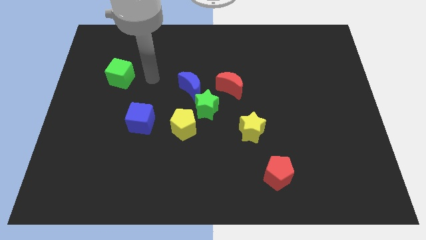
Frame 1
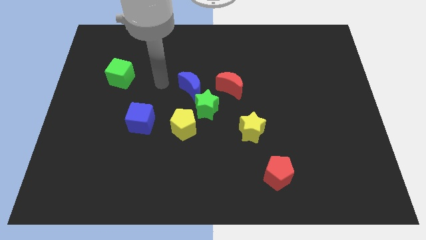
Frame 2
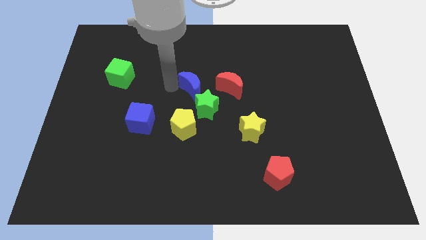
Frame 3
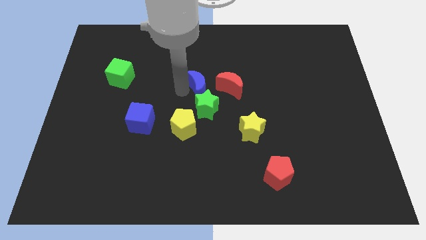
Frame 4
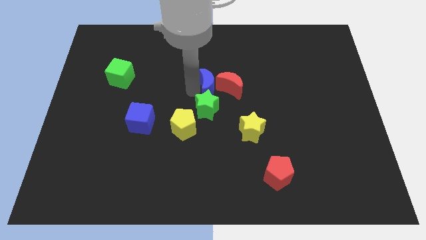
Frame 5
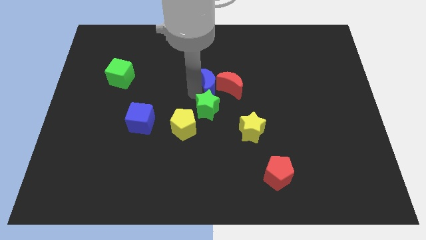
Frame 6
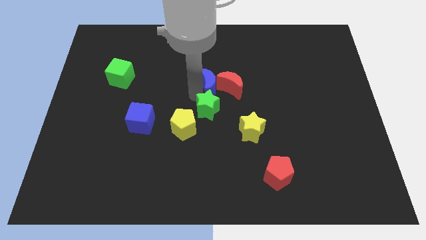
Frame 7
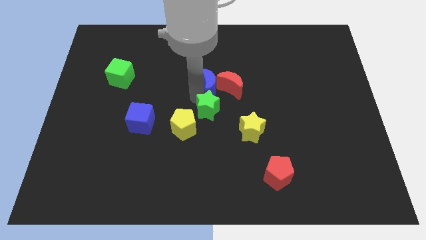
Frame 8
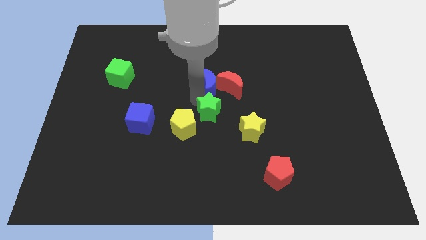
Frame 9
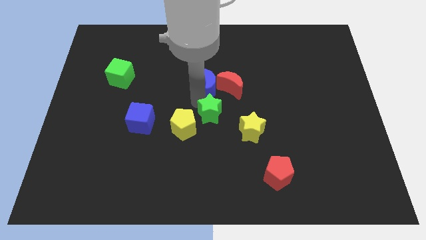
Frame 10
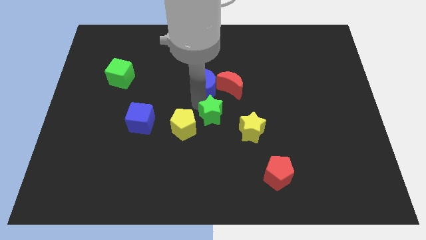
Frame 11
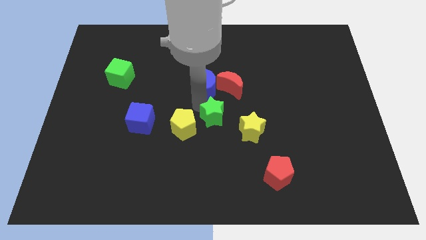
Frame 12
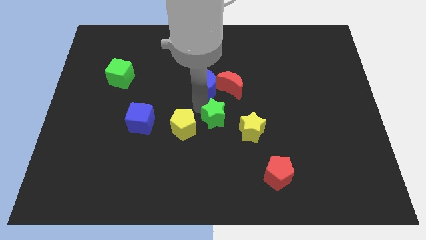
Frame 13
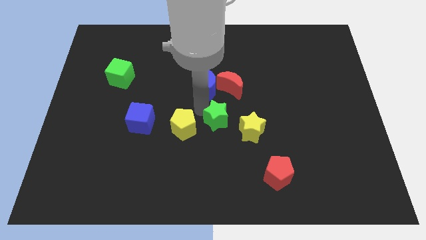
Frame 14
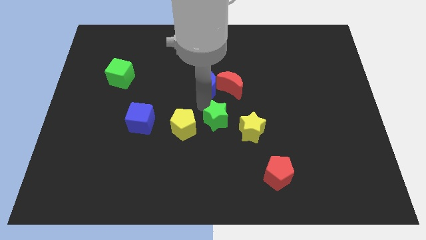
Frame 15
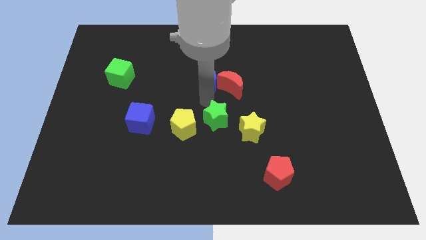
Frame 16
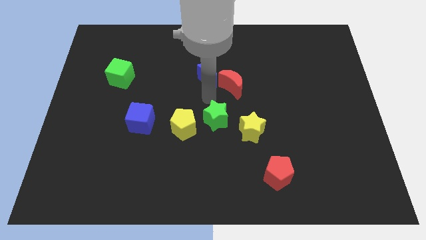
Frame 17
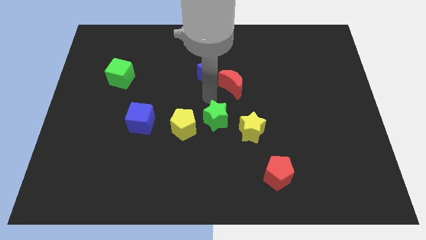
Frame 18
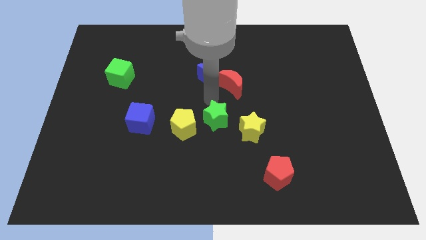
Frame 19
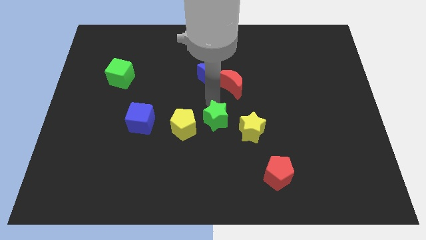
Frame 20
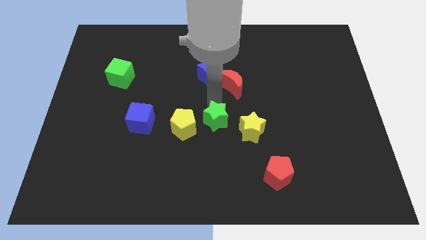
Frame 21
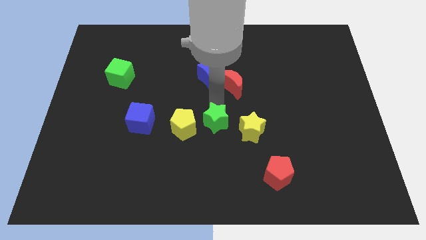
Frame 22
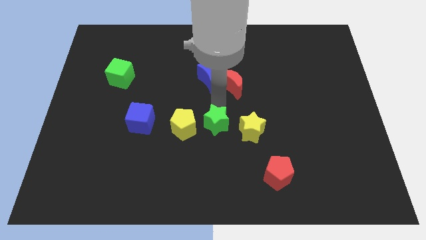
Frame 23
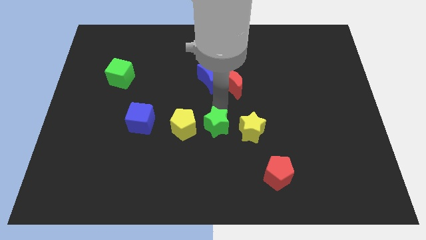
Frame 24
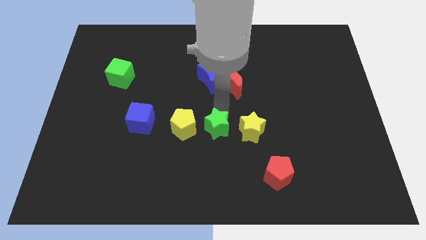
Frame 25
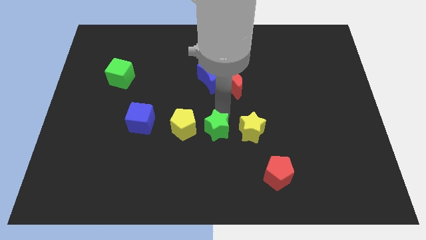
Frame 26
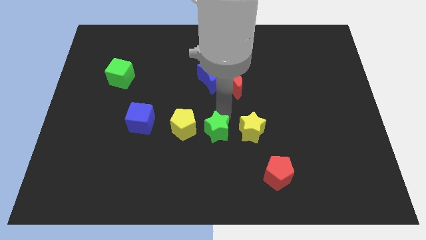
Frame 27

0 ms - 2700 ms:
separate the green star from the blue moon, yellow pentagon, and red moon

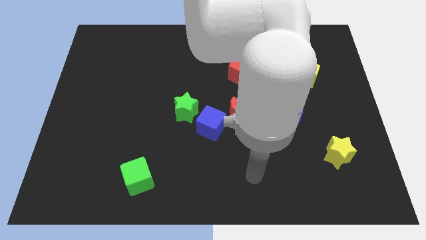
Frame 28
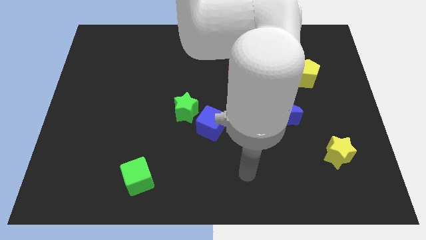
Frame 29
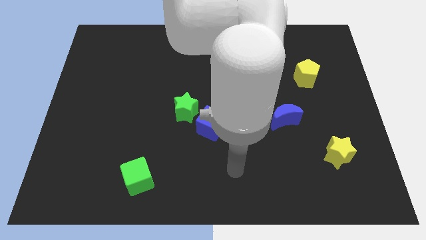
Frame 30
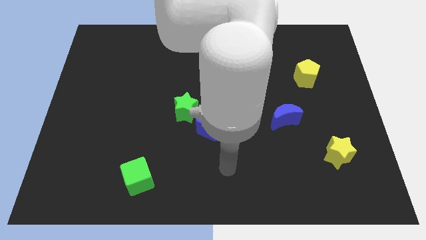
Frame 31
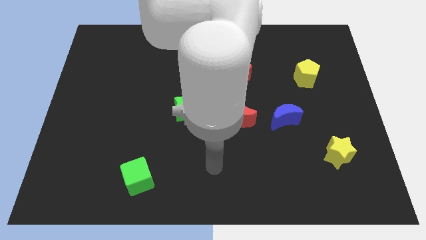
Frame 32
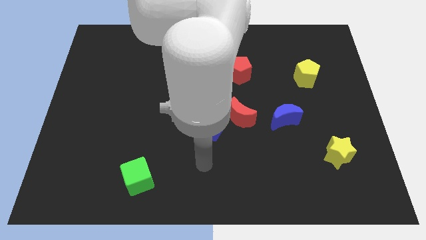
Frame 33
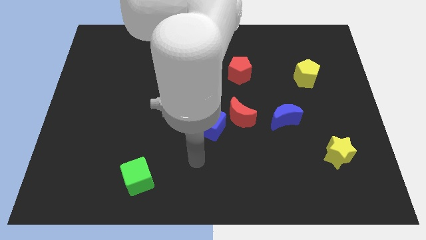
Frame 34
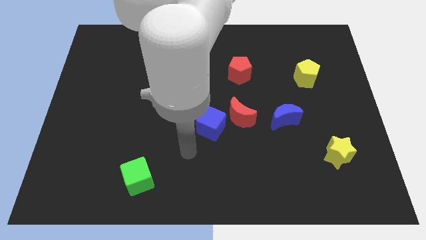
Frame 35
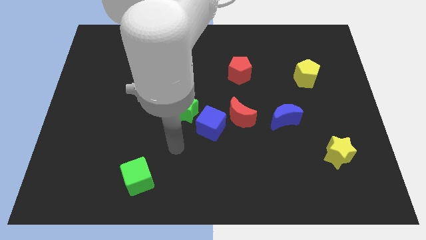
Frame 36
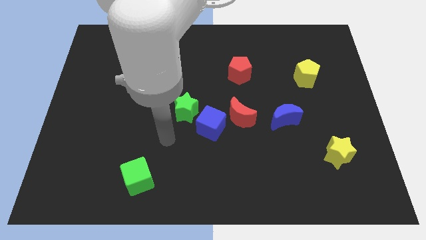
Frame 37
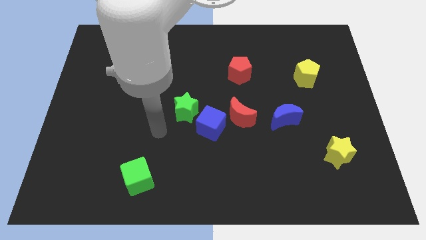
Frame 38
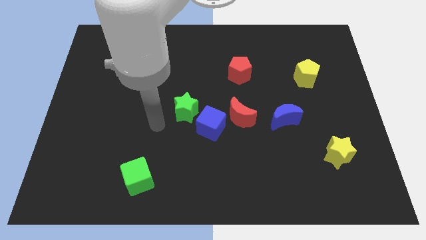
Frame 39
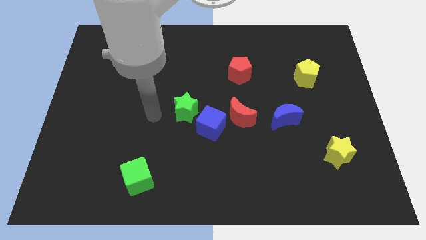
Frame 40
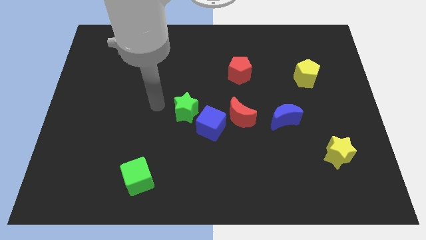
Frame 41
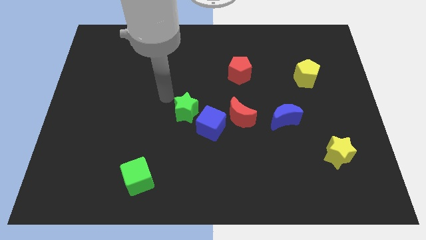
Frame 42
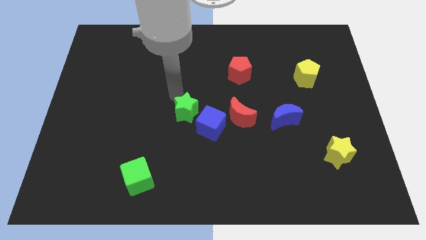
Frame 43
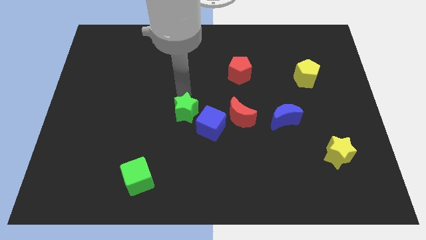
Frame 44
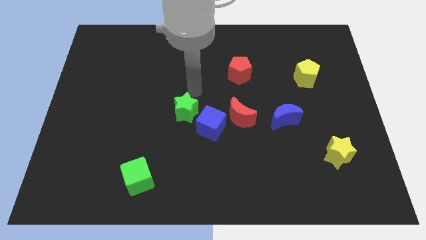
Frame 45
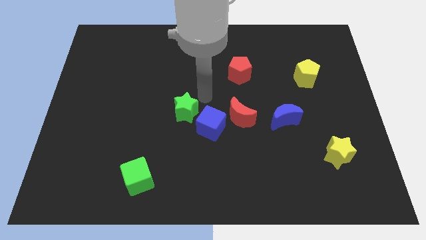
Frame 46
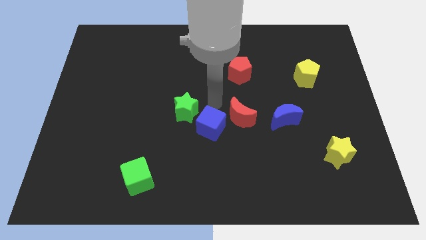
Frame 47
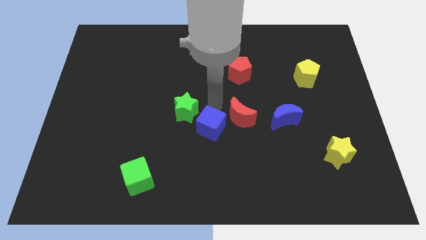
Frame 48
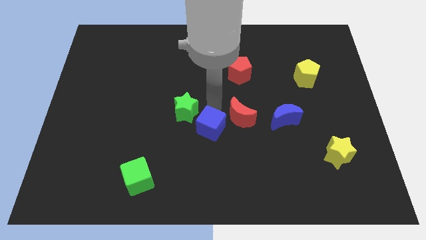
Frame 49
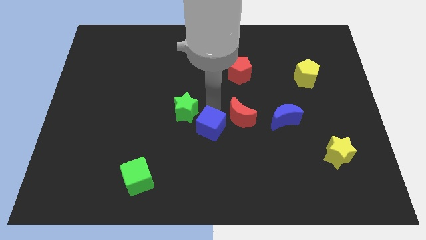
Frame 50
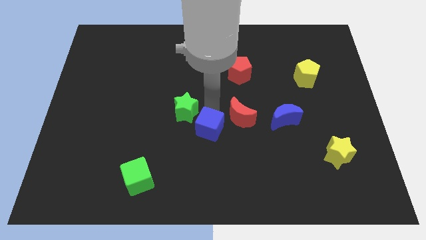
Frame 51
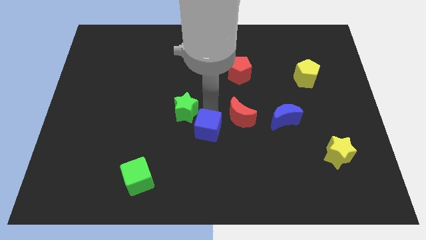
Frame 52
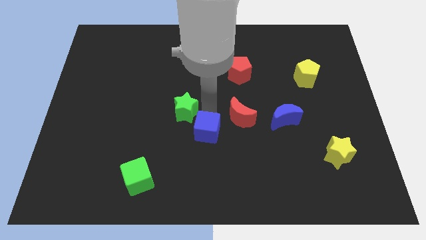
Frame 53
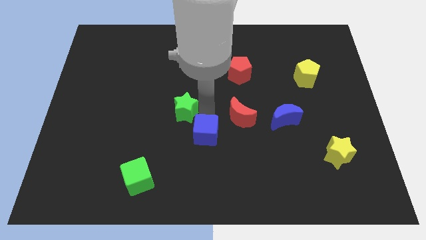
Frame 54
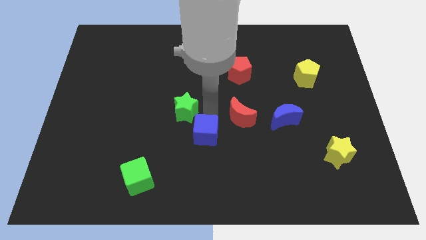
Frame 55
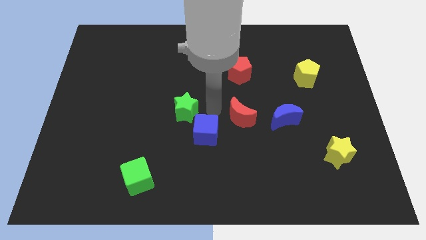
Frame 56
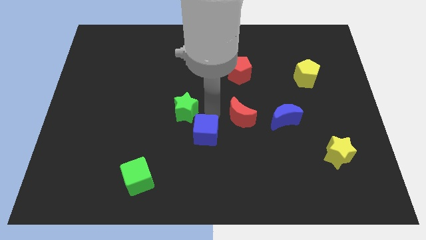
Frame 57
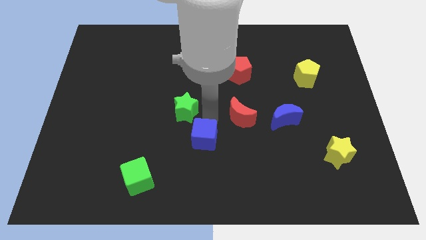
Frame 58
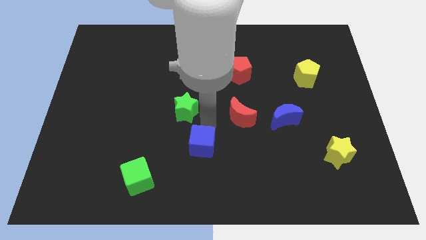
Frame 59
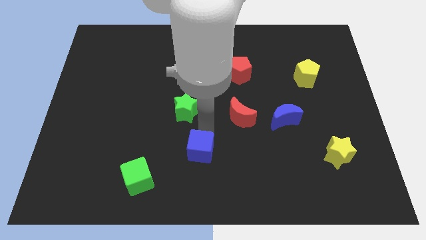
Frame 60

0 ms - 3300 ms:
move the blue cube away from the red moon and green star

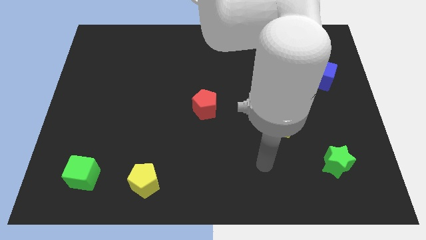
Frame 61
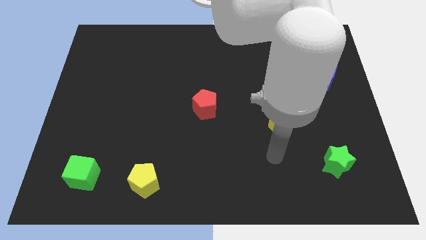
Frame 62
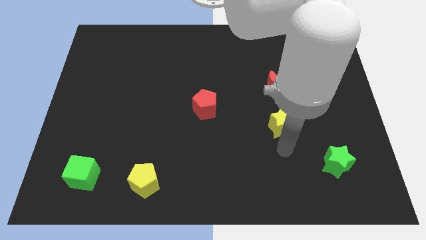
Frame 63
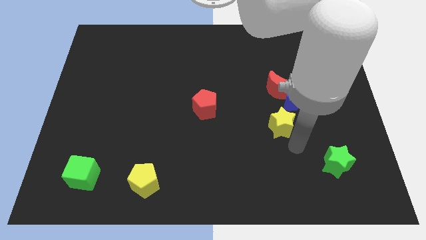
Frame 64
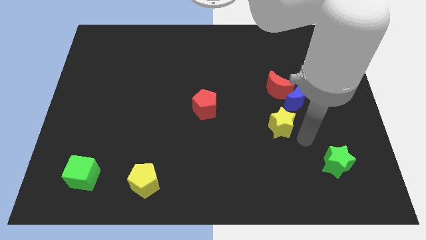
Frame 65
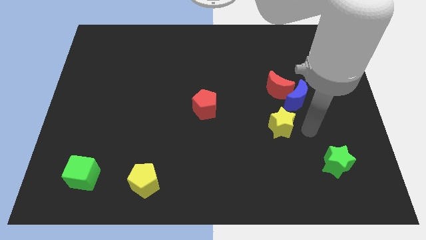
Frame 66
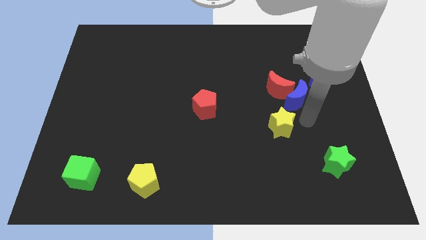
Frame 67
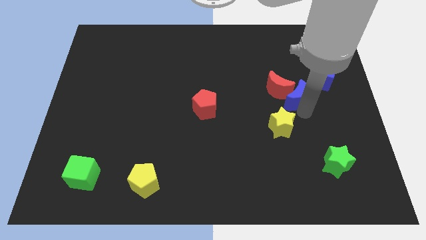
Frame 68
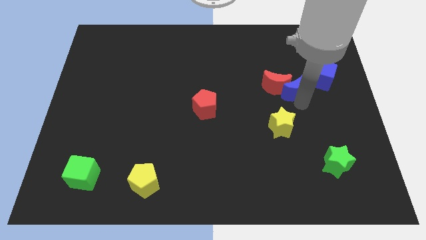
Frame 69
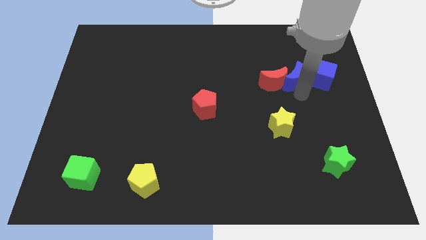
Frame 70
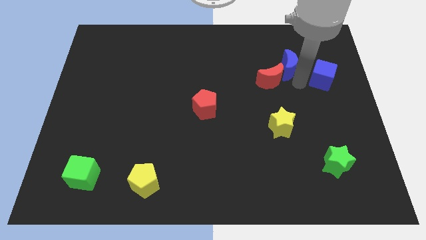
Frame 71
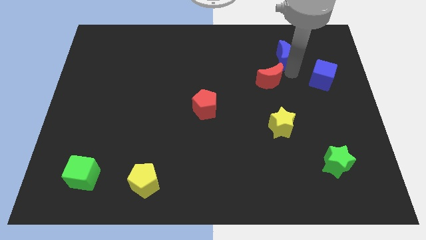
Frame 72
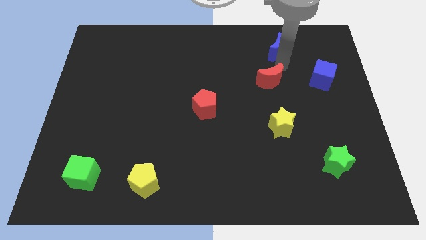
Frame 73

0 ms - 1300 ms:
pull the red moon apart from the blue moon

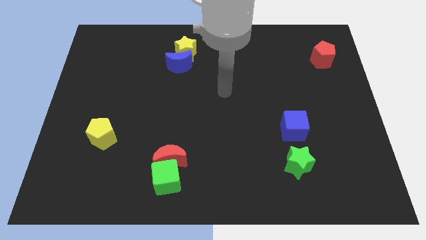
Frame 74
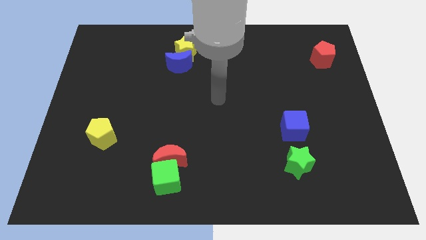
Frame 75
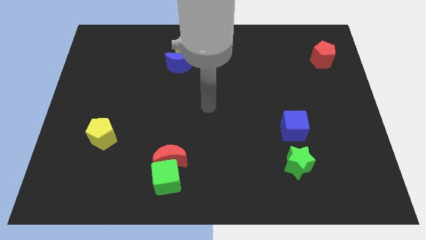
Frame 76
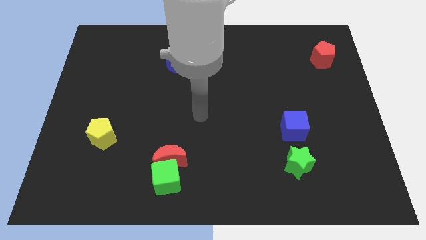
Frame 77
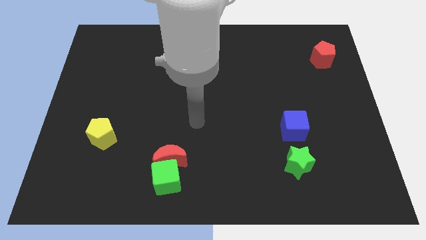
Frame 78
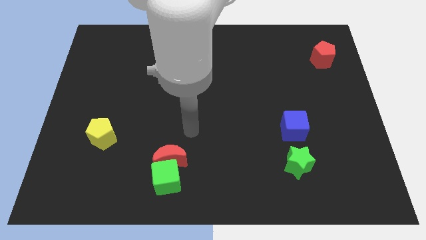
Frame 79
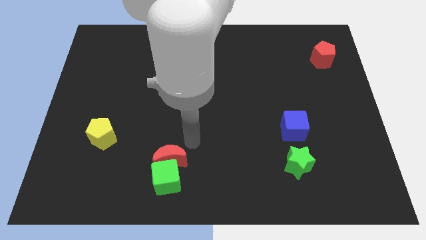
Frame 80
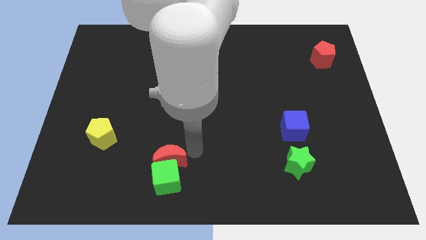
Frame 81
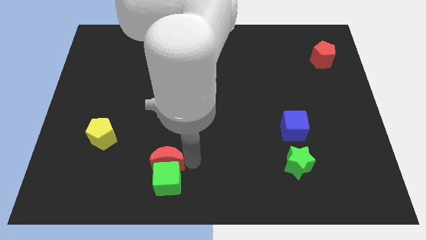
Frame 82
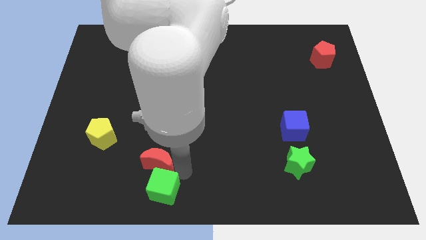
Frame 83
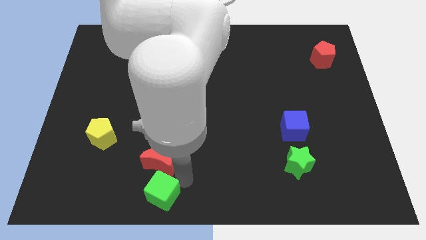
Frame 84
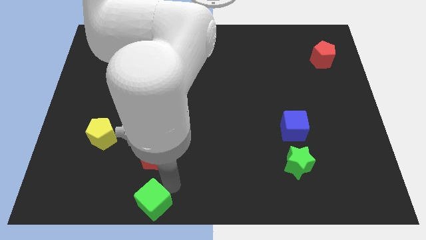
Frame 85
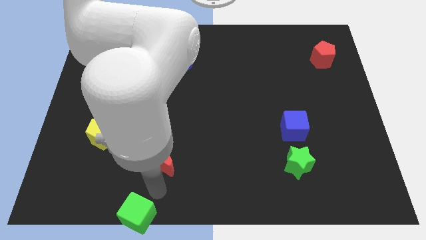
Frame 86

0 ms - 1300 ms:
pull the red moon apart from the green cube

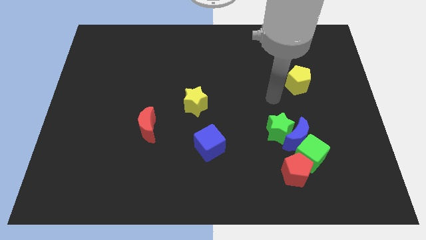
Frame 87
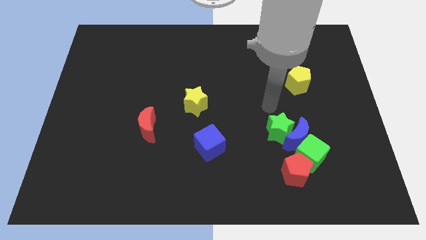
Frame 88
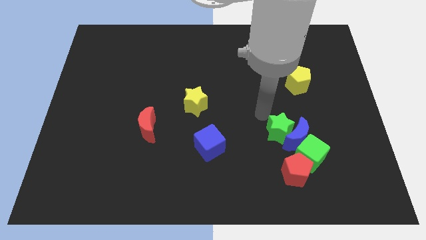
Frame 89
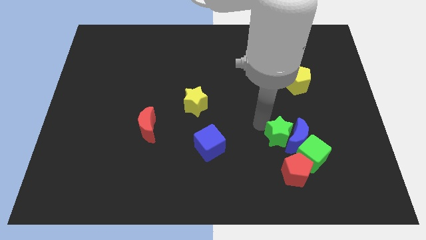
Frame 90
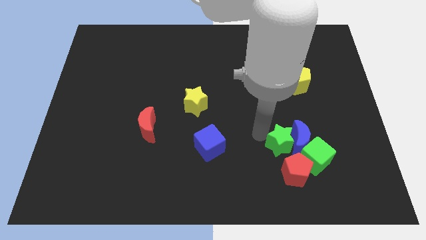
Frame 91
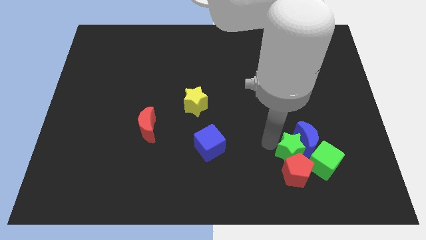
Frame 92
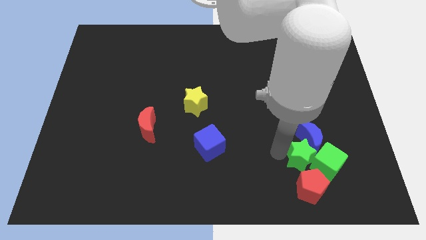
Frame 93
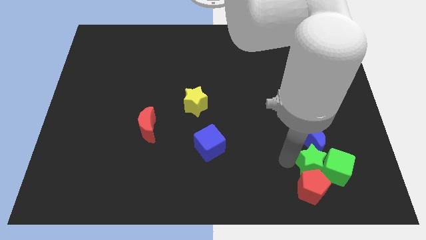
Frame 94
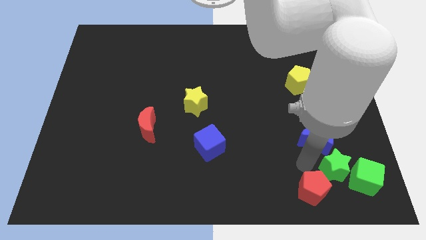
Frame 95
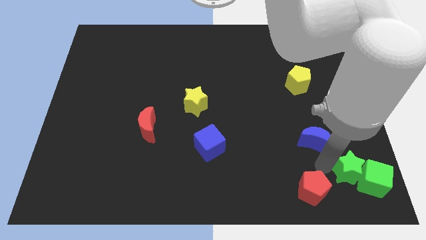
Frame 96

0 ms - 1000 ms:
pull the blue moon apart from the group
